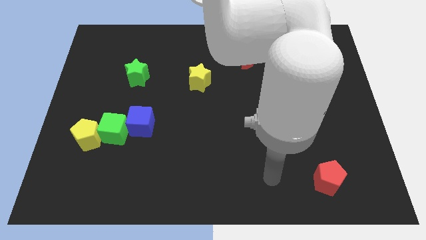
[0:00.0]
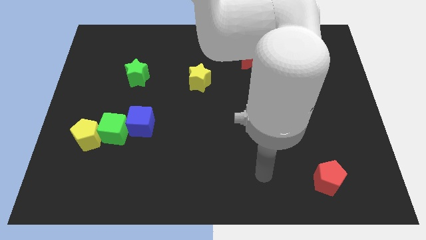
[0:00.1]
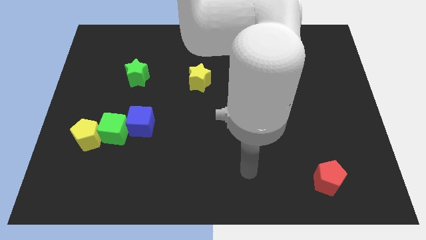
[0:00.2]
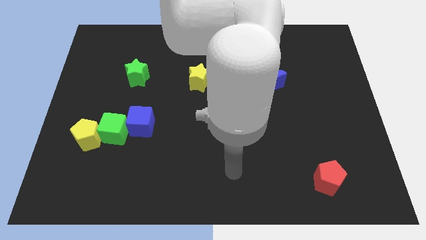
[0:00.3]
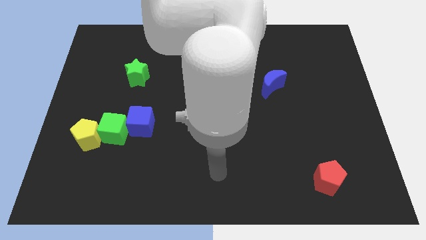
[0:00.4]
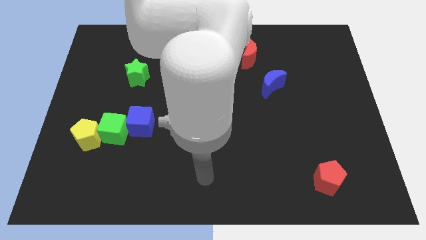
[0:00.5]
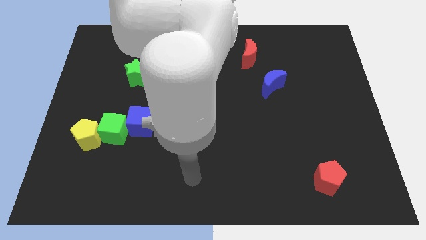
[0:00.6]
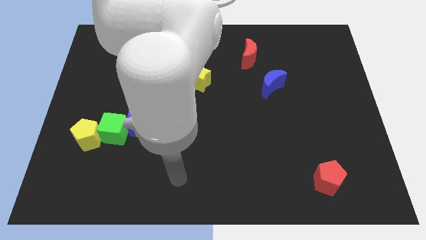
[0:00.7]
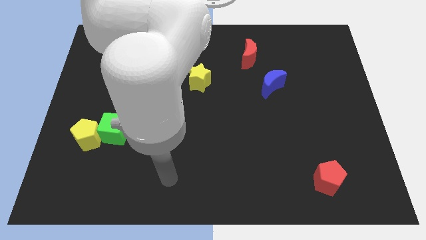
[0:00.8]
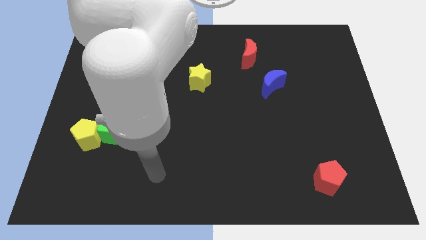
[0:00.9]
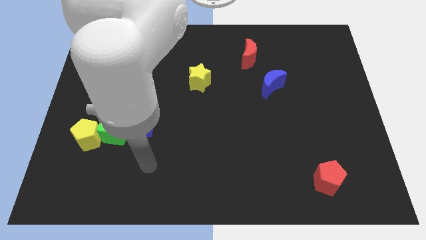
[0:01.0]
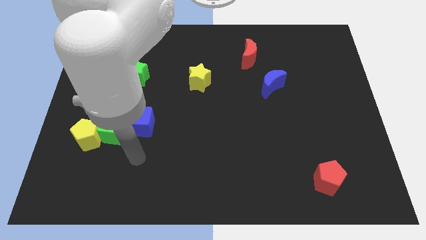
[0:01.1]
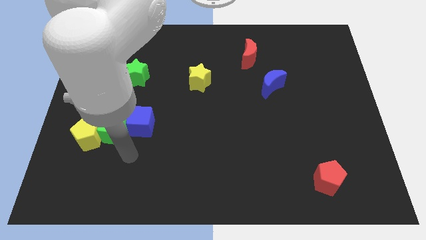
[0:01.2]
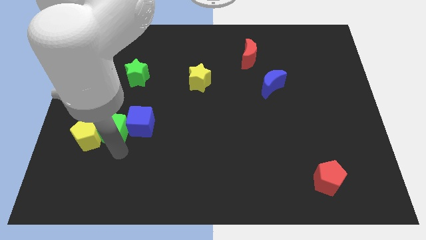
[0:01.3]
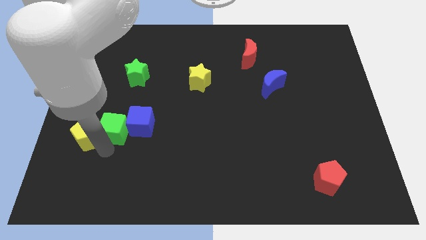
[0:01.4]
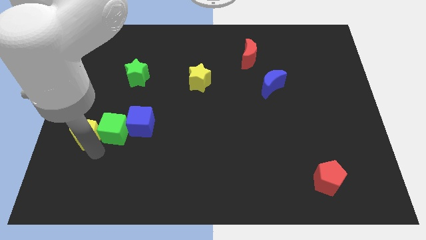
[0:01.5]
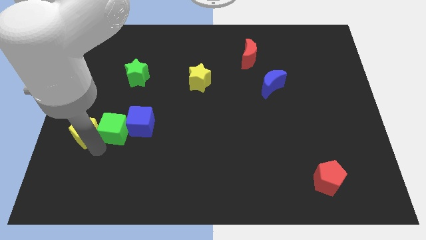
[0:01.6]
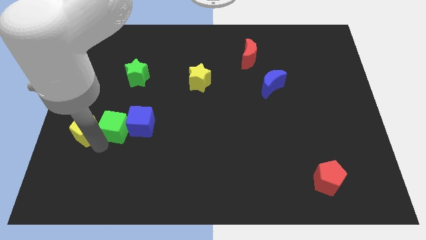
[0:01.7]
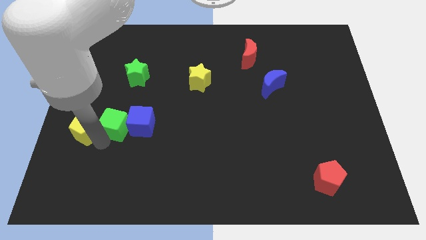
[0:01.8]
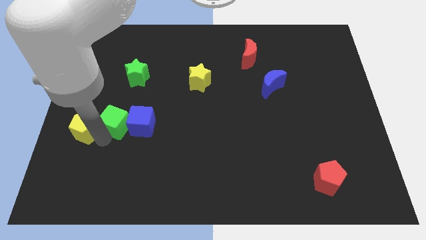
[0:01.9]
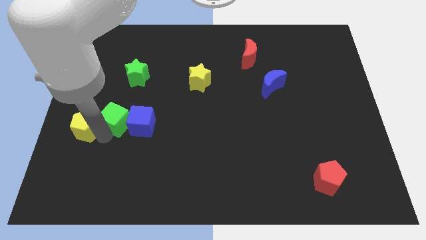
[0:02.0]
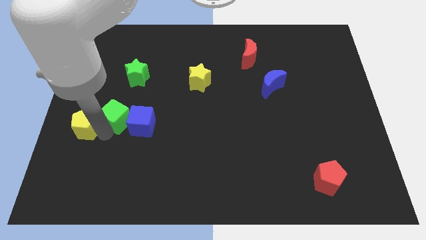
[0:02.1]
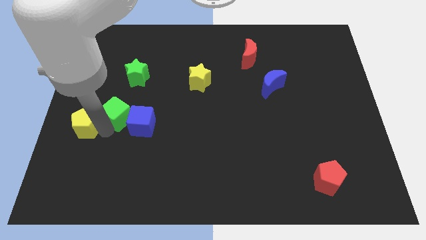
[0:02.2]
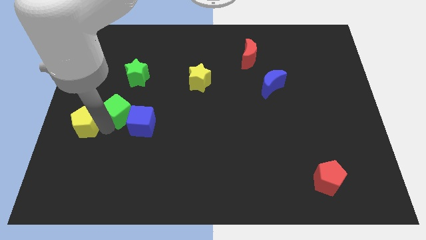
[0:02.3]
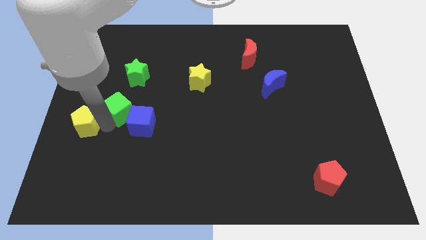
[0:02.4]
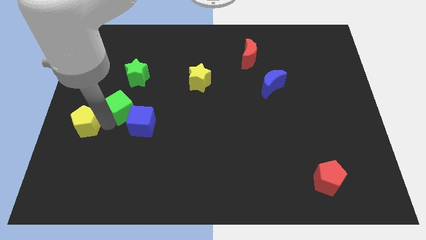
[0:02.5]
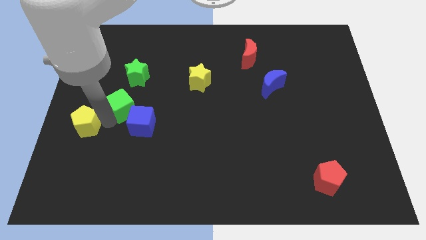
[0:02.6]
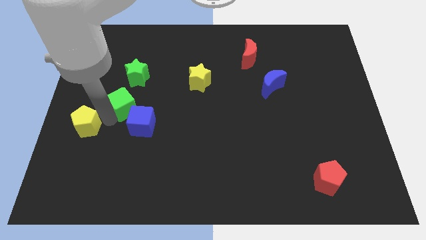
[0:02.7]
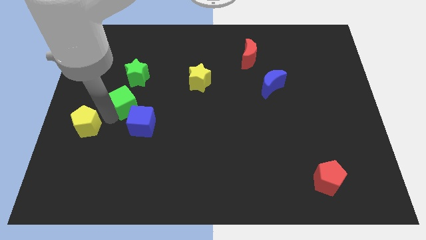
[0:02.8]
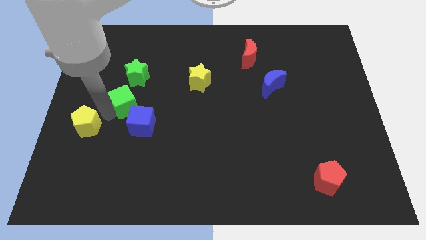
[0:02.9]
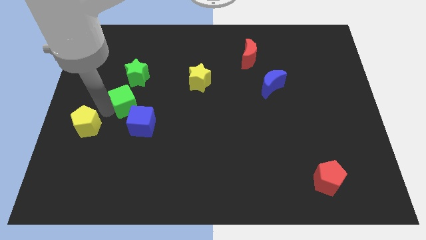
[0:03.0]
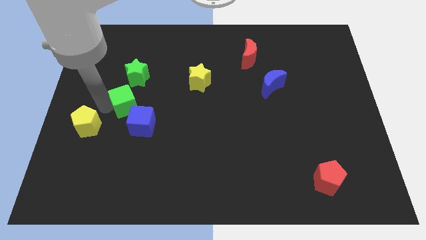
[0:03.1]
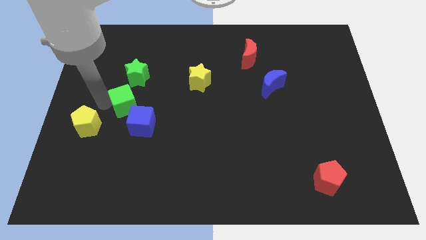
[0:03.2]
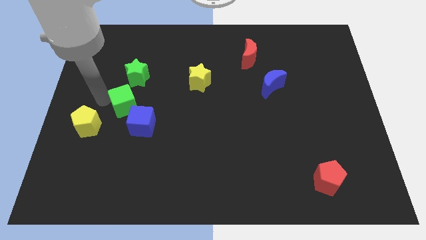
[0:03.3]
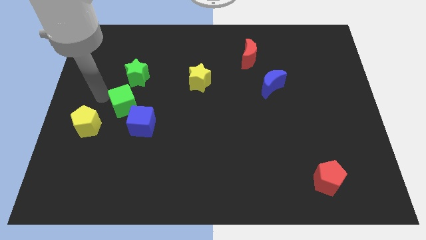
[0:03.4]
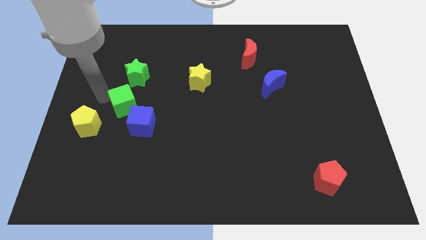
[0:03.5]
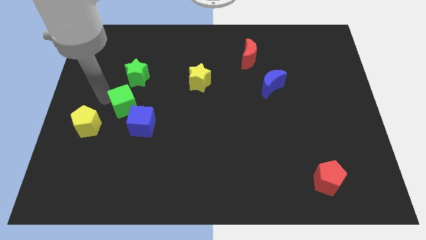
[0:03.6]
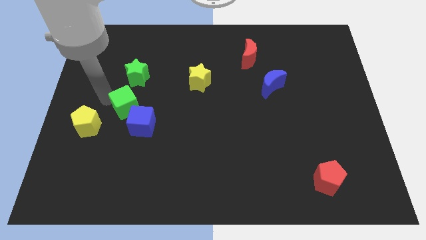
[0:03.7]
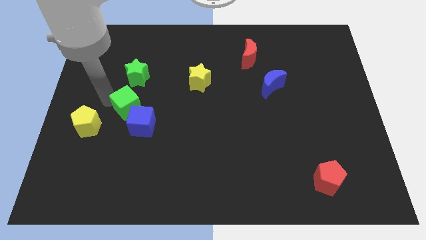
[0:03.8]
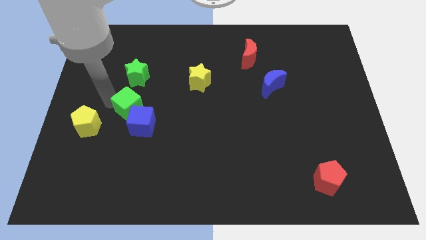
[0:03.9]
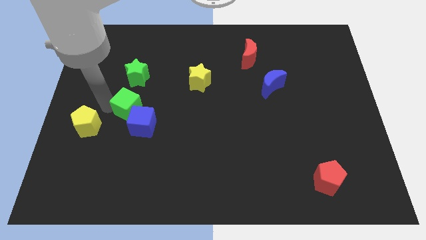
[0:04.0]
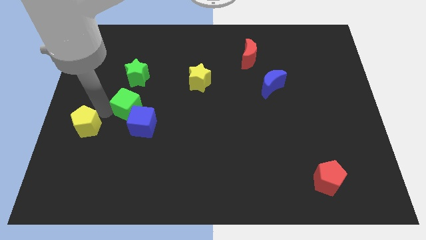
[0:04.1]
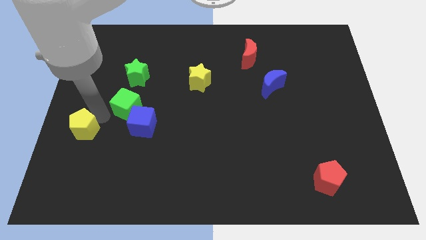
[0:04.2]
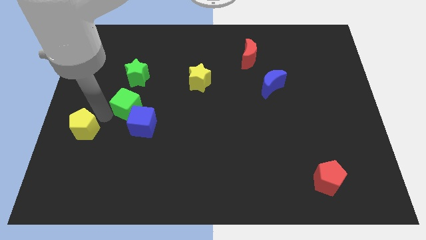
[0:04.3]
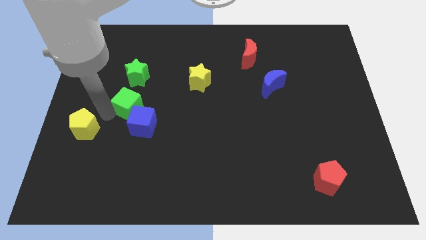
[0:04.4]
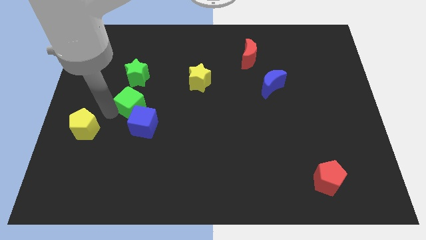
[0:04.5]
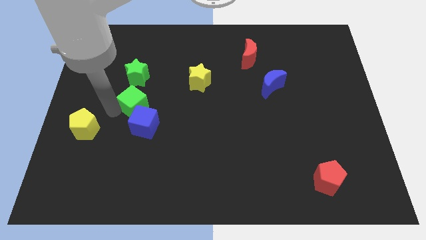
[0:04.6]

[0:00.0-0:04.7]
slide the green cube a little bit diagonally upwards and to the right

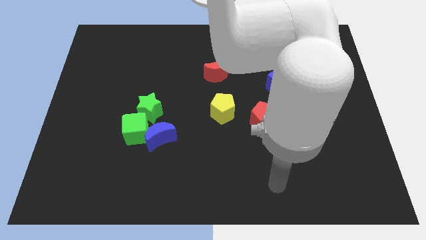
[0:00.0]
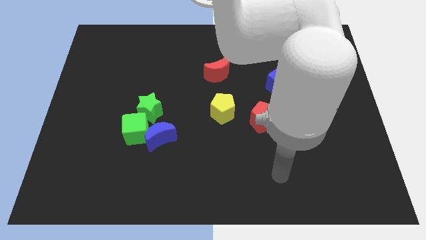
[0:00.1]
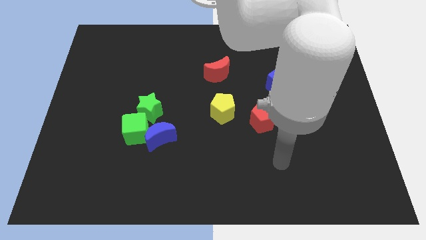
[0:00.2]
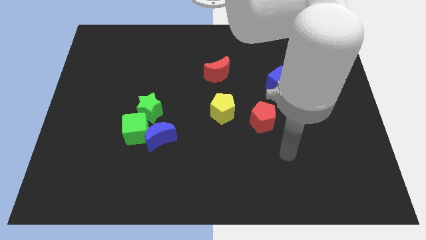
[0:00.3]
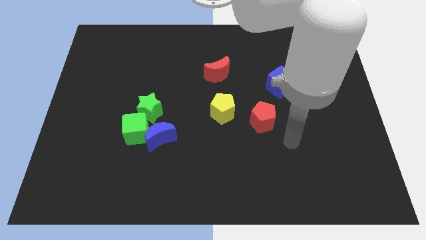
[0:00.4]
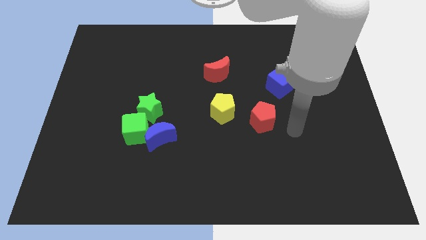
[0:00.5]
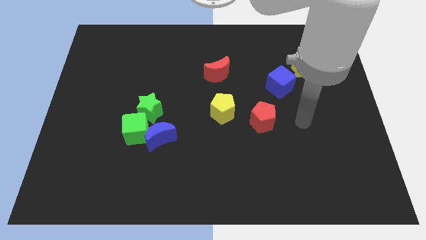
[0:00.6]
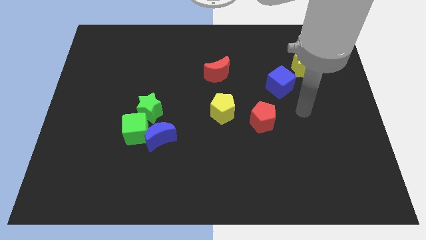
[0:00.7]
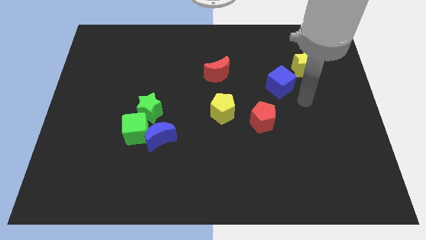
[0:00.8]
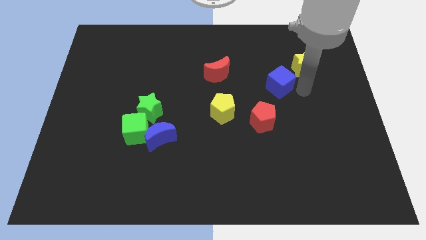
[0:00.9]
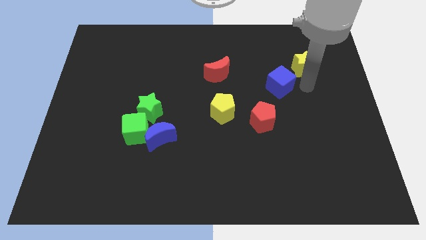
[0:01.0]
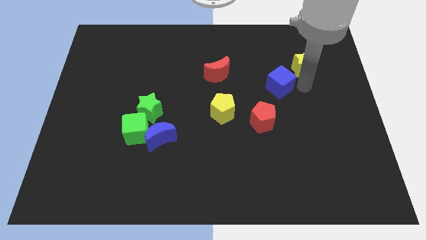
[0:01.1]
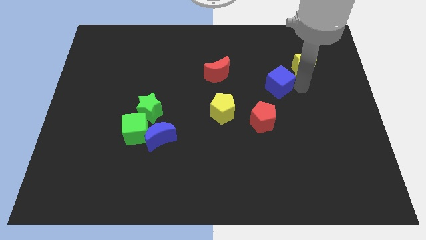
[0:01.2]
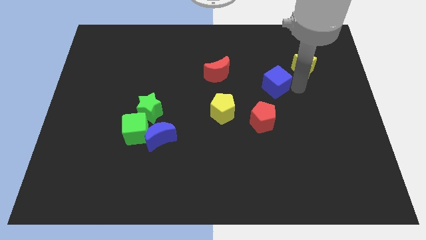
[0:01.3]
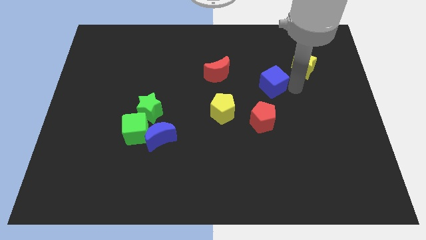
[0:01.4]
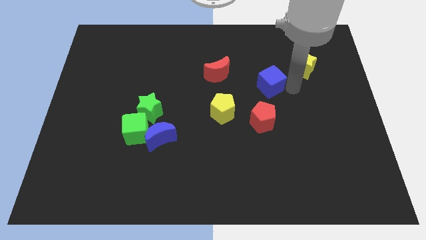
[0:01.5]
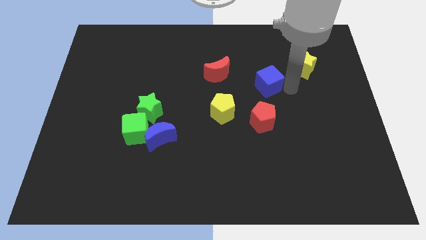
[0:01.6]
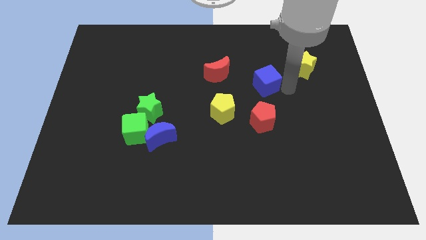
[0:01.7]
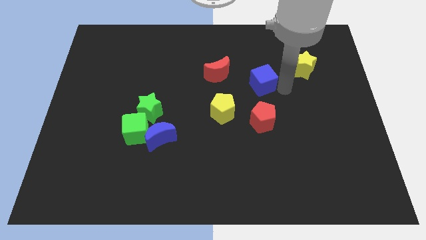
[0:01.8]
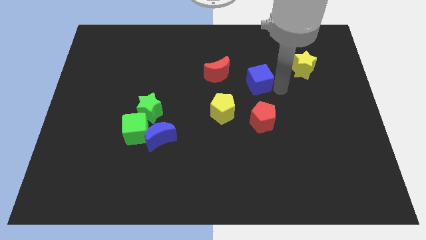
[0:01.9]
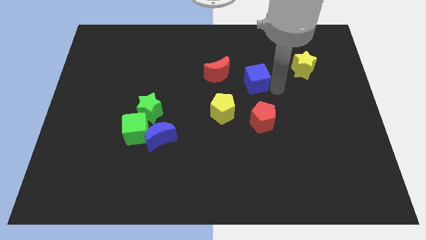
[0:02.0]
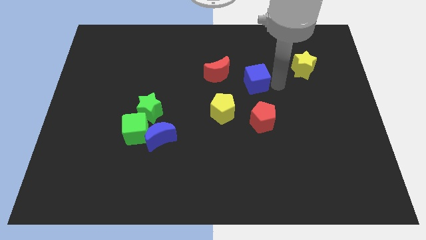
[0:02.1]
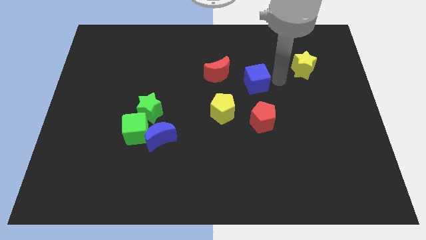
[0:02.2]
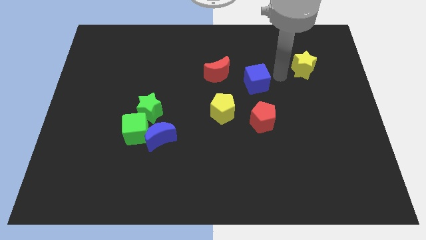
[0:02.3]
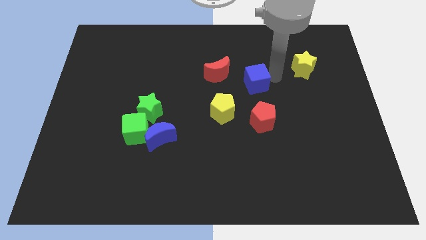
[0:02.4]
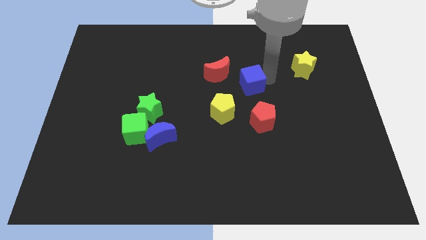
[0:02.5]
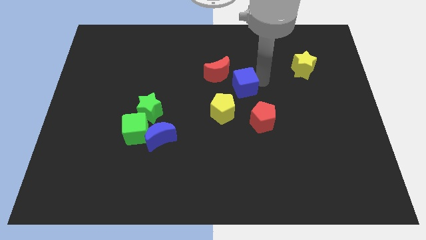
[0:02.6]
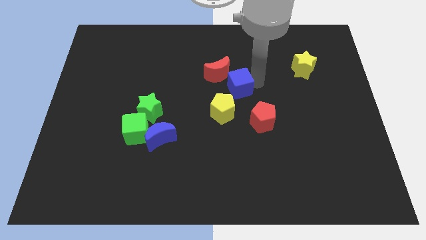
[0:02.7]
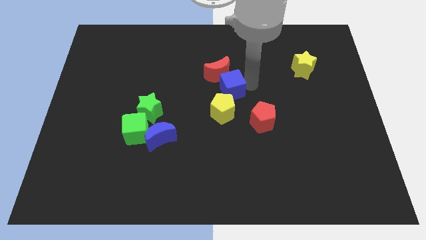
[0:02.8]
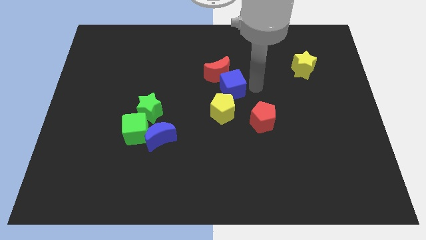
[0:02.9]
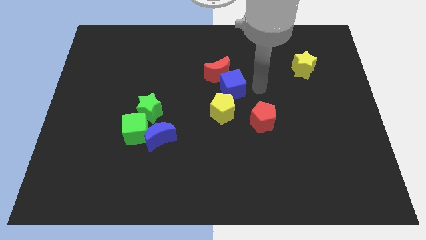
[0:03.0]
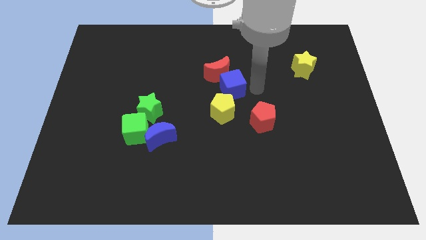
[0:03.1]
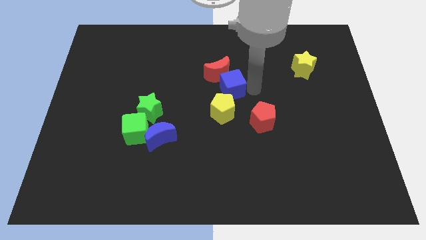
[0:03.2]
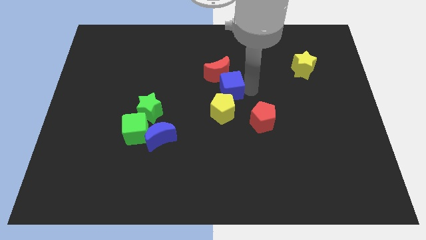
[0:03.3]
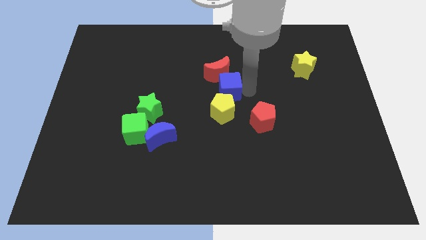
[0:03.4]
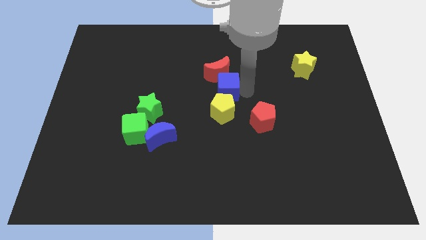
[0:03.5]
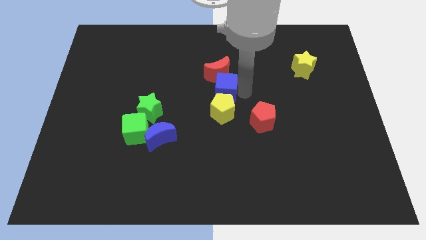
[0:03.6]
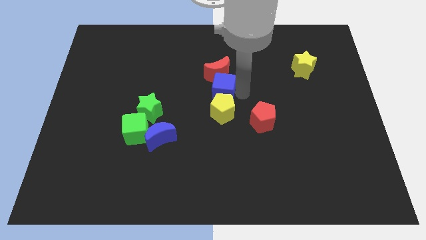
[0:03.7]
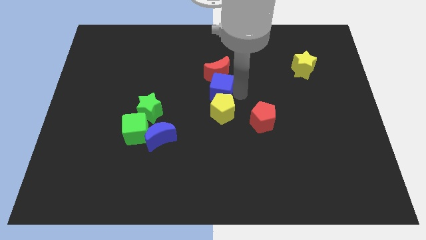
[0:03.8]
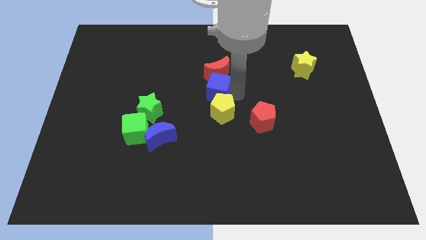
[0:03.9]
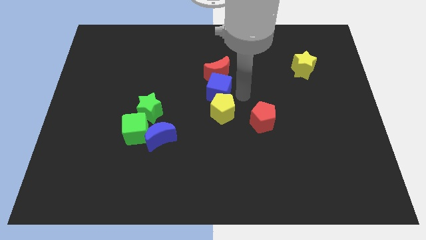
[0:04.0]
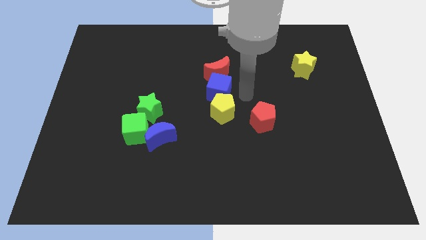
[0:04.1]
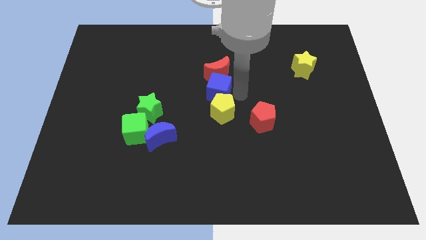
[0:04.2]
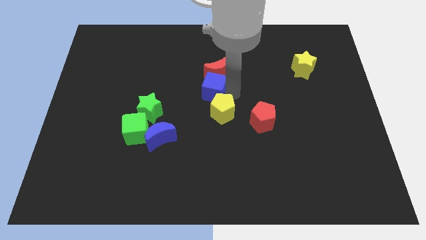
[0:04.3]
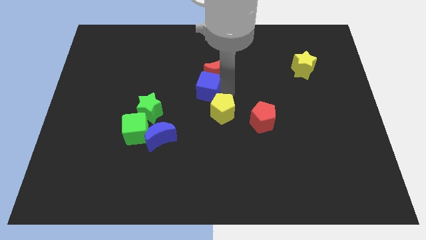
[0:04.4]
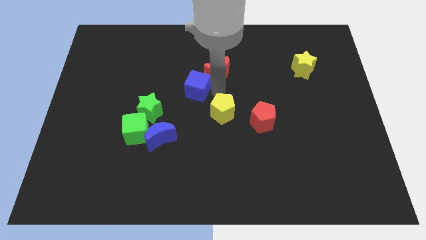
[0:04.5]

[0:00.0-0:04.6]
slide the blue cube to the left
